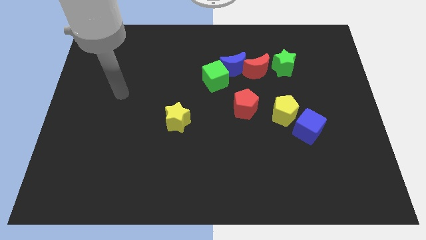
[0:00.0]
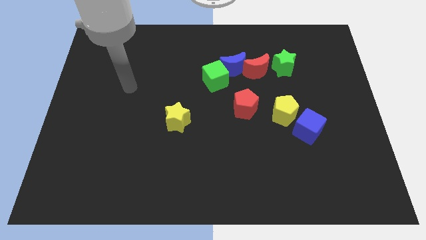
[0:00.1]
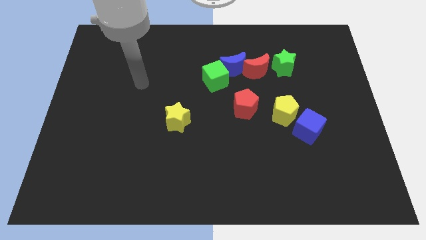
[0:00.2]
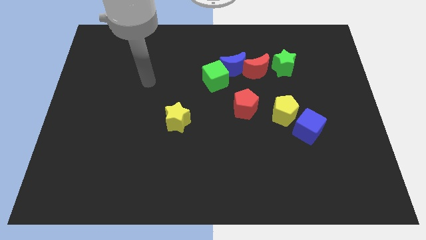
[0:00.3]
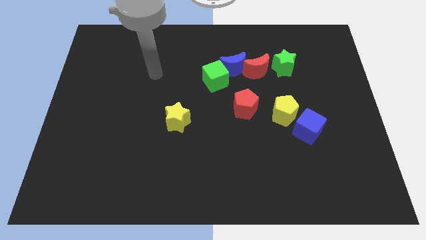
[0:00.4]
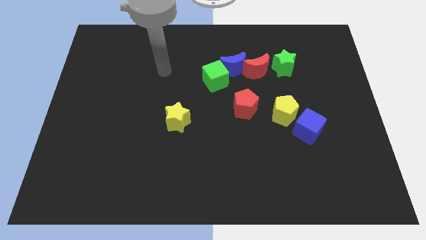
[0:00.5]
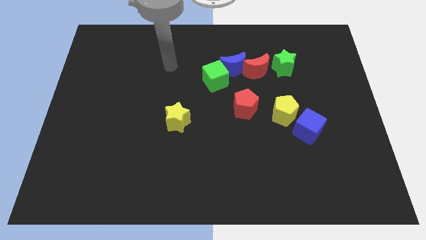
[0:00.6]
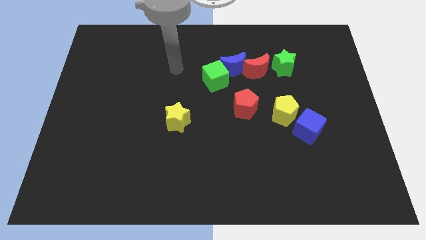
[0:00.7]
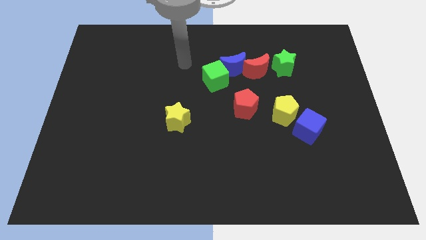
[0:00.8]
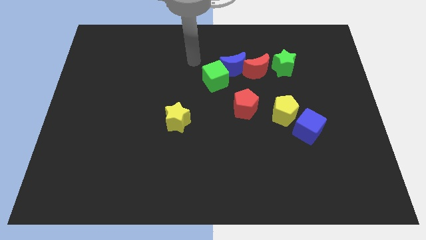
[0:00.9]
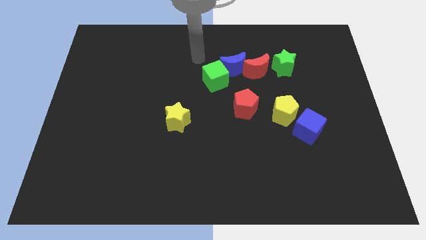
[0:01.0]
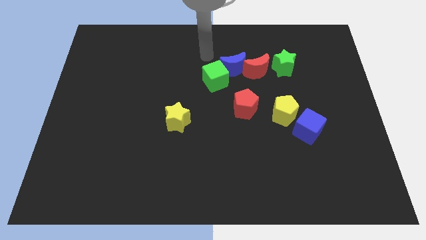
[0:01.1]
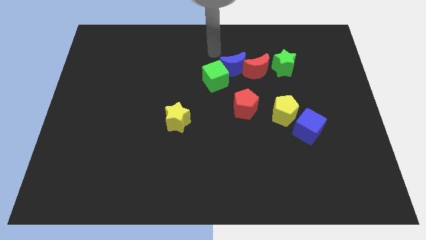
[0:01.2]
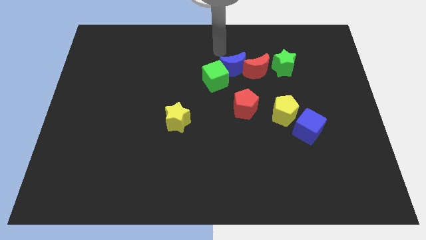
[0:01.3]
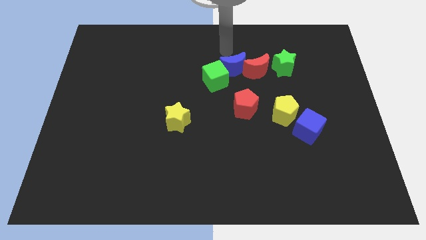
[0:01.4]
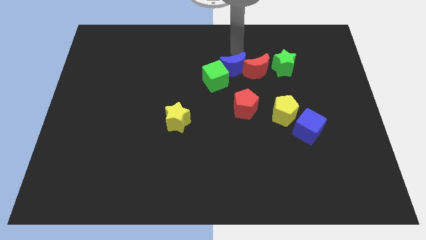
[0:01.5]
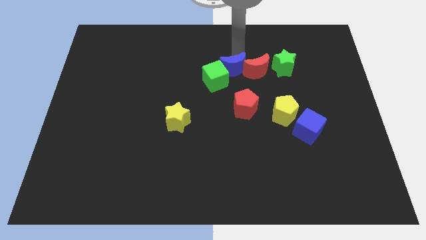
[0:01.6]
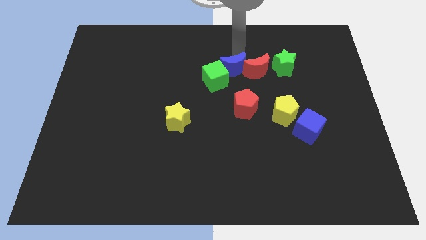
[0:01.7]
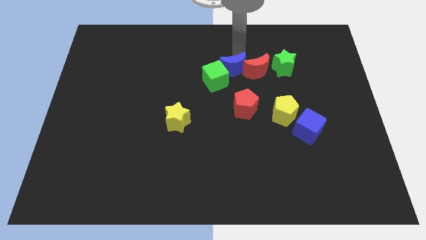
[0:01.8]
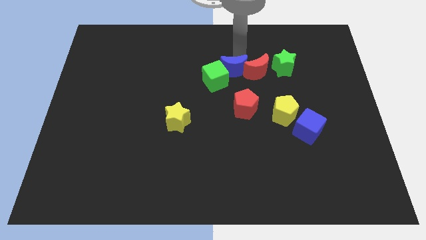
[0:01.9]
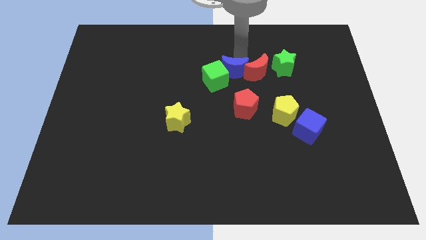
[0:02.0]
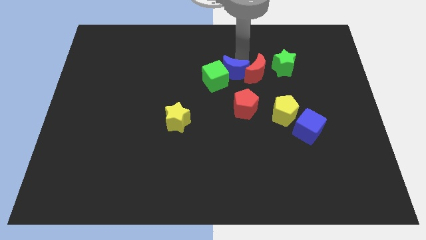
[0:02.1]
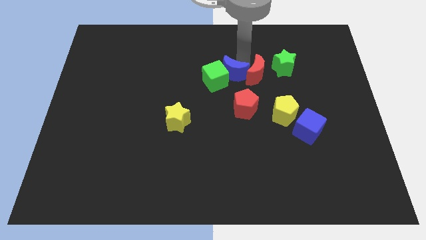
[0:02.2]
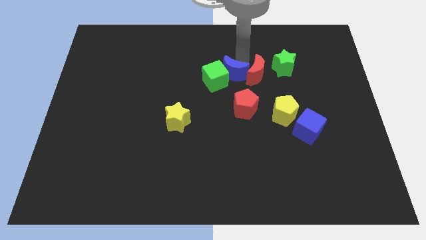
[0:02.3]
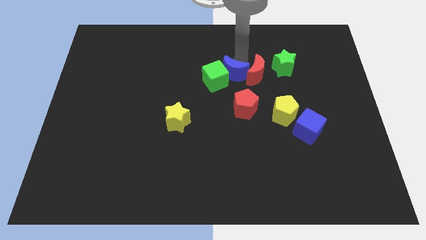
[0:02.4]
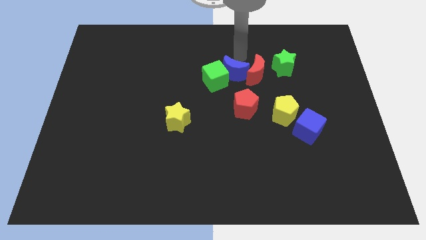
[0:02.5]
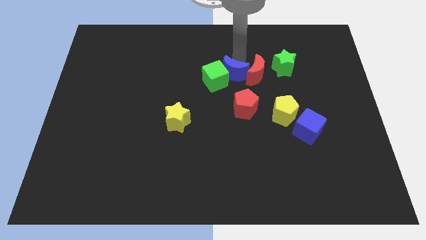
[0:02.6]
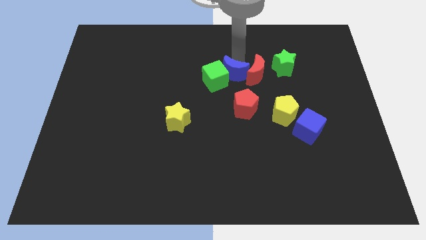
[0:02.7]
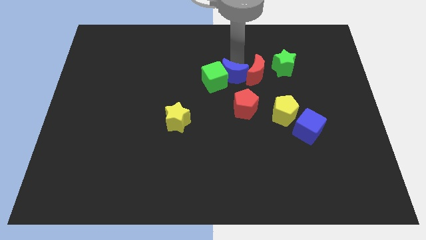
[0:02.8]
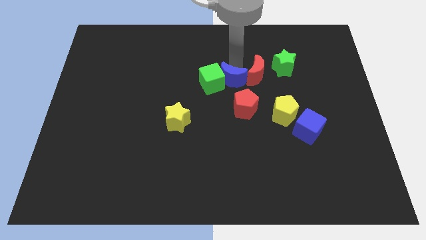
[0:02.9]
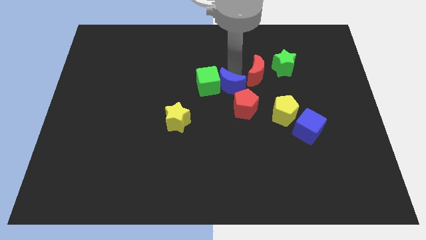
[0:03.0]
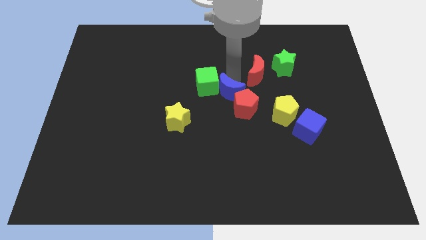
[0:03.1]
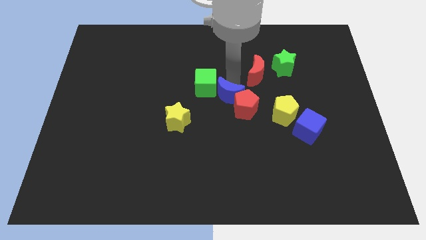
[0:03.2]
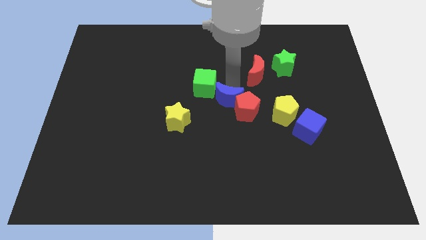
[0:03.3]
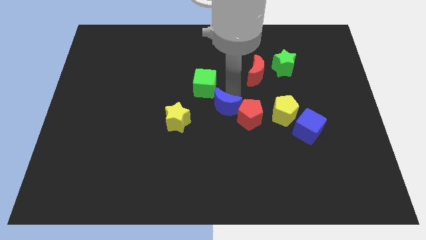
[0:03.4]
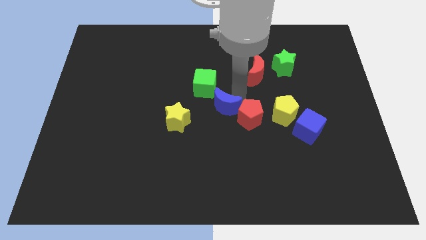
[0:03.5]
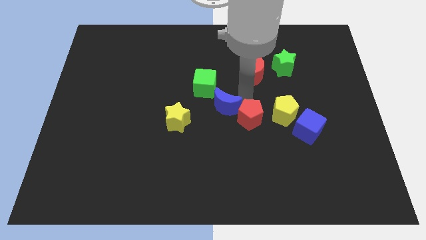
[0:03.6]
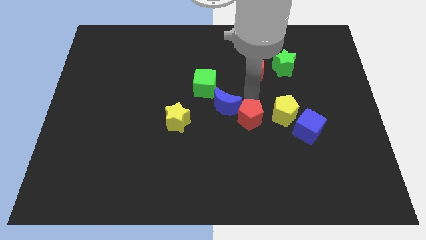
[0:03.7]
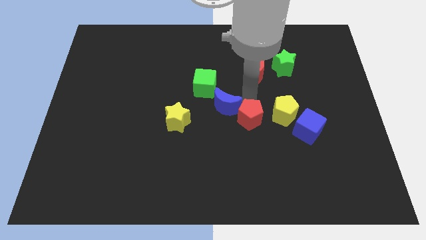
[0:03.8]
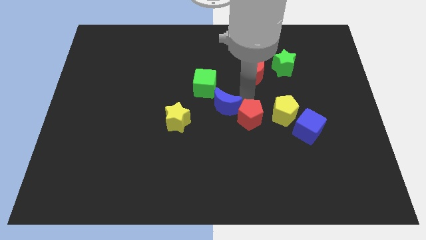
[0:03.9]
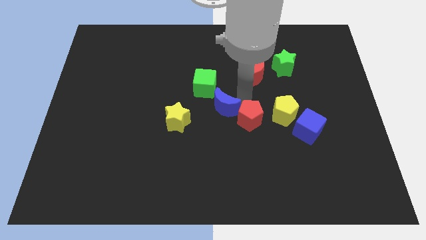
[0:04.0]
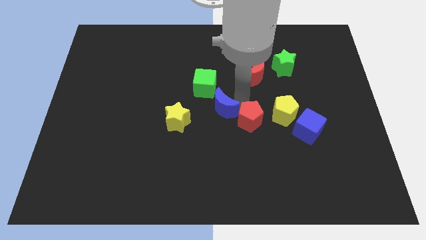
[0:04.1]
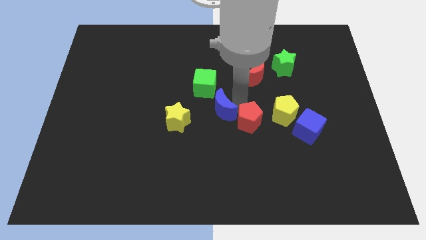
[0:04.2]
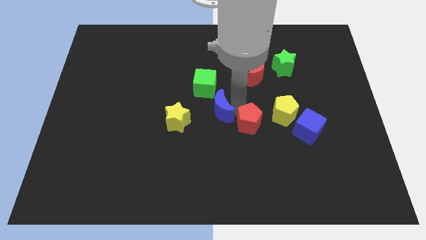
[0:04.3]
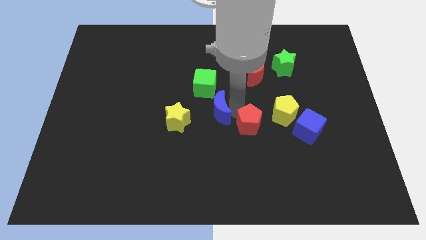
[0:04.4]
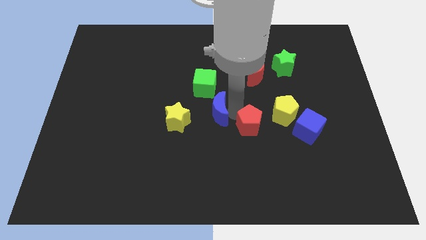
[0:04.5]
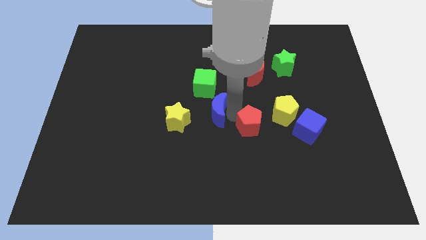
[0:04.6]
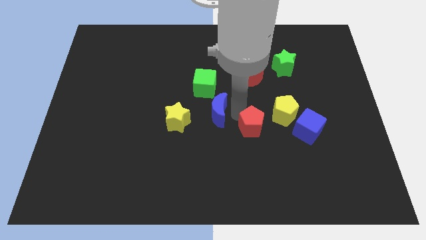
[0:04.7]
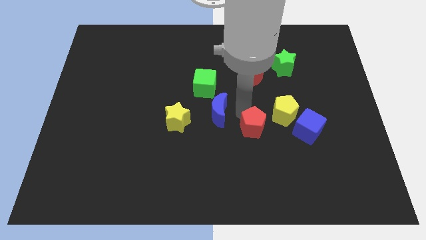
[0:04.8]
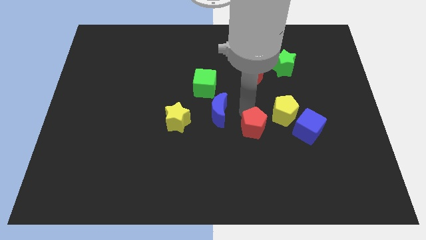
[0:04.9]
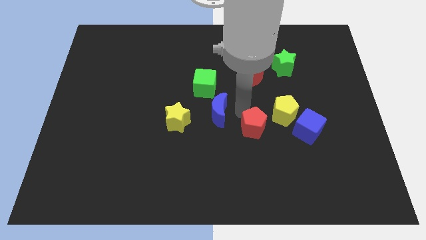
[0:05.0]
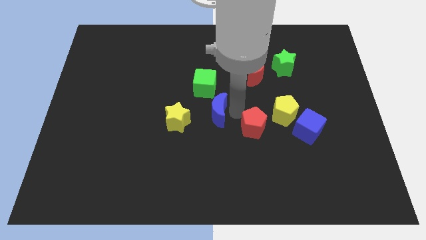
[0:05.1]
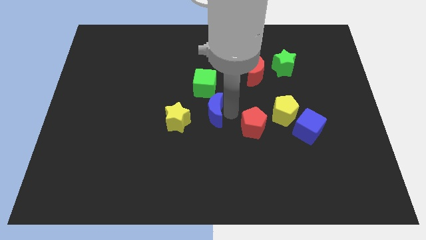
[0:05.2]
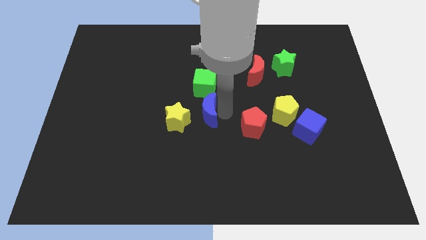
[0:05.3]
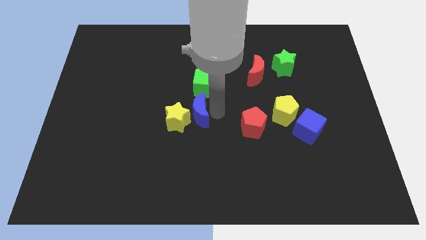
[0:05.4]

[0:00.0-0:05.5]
put the blue moon towards the yellow star

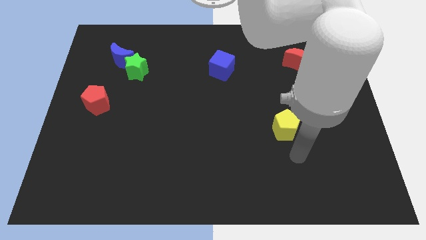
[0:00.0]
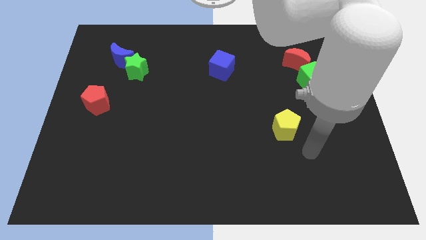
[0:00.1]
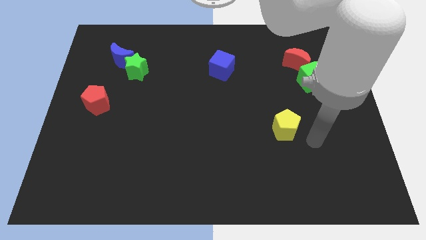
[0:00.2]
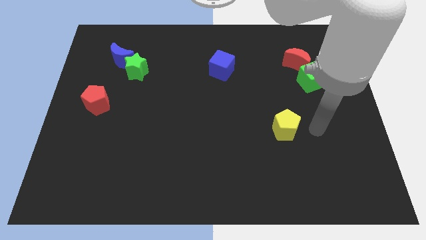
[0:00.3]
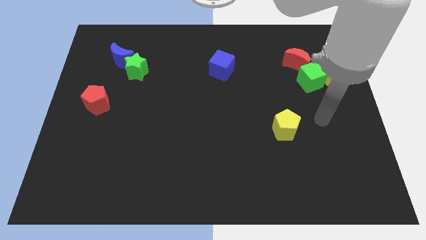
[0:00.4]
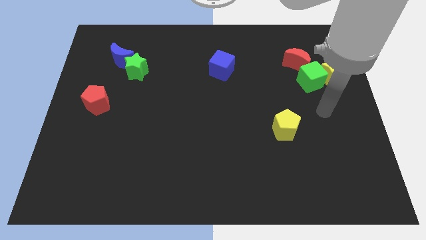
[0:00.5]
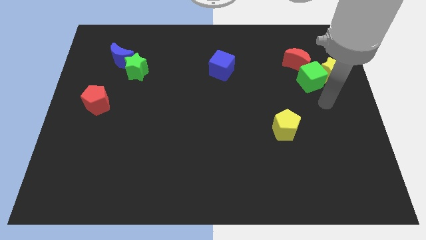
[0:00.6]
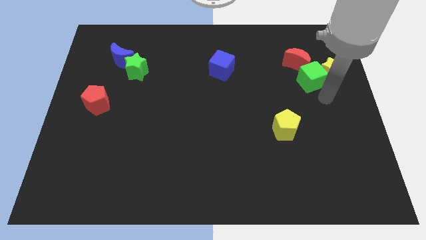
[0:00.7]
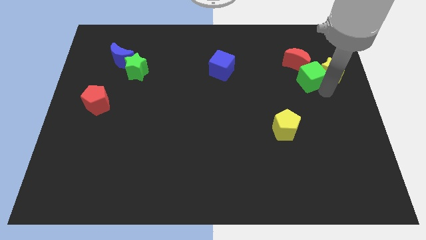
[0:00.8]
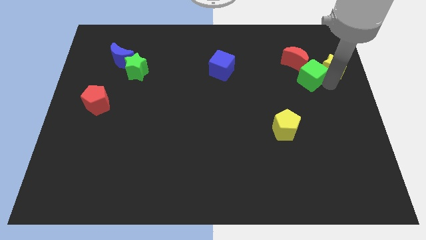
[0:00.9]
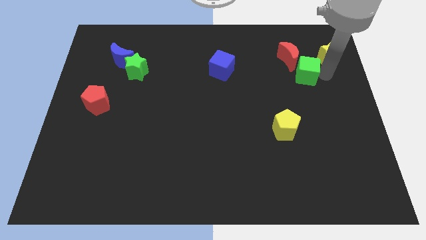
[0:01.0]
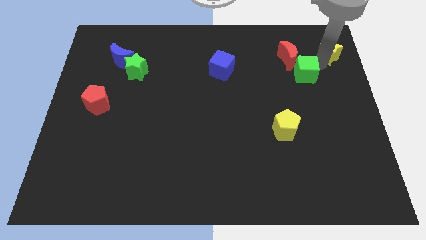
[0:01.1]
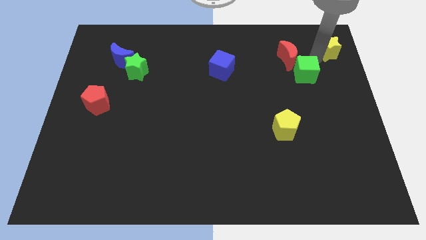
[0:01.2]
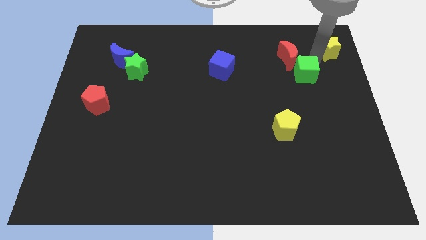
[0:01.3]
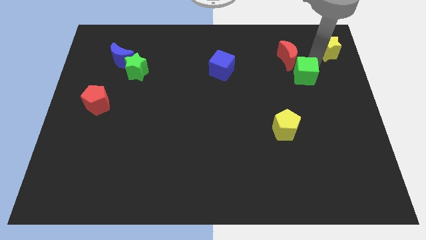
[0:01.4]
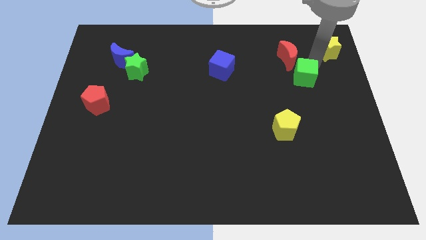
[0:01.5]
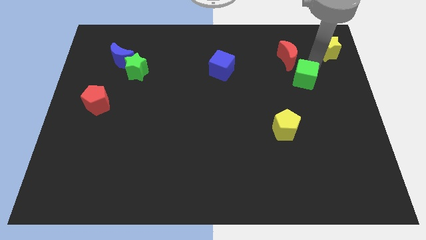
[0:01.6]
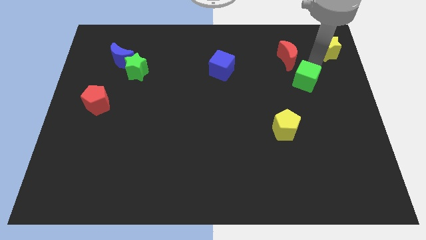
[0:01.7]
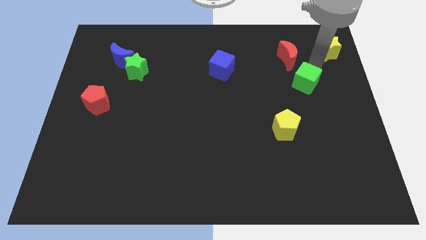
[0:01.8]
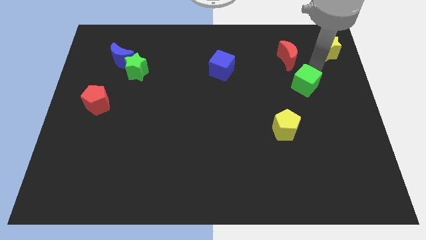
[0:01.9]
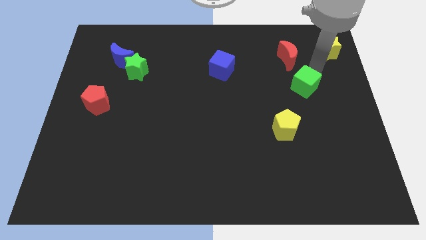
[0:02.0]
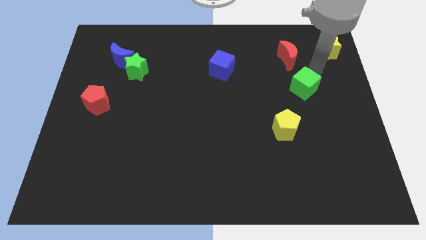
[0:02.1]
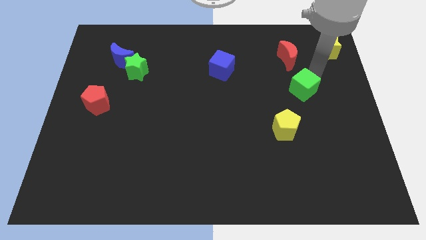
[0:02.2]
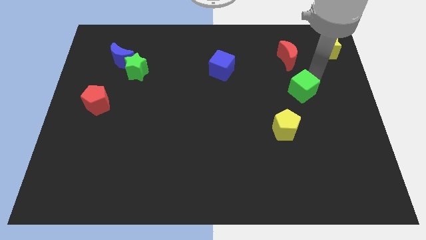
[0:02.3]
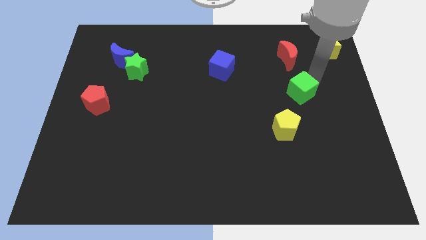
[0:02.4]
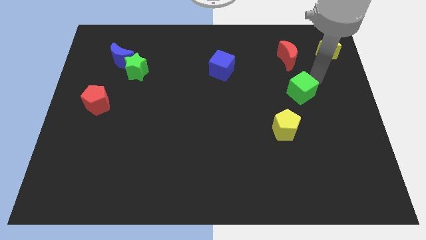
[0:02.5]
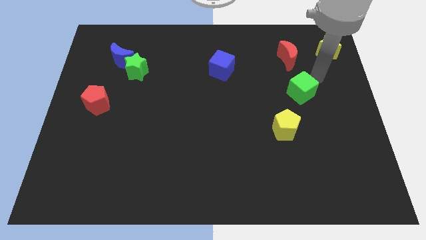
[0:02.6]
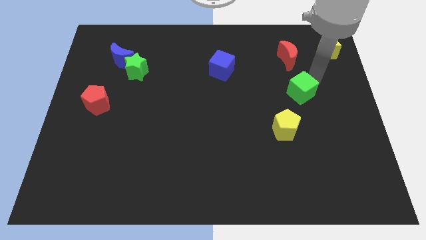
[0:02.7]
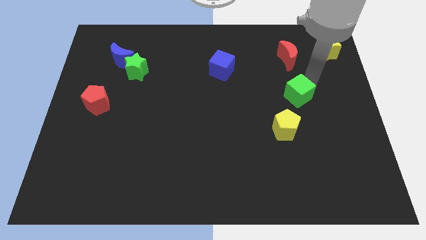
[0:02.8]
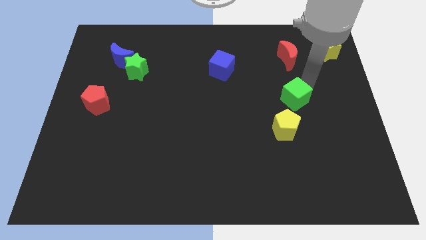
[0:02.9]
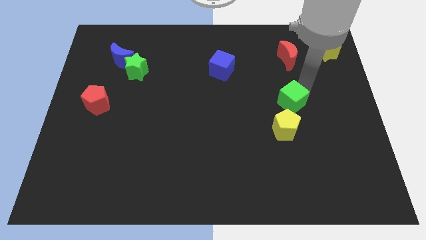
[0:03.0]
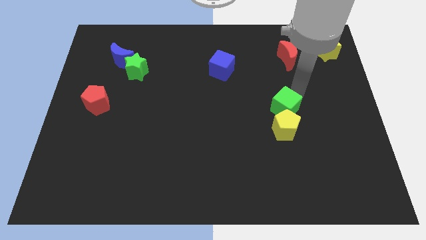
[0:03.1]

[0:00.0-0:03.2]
slide the green cube to the yellow pentagon
